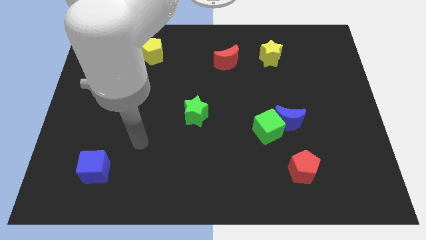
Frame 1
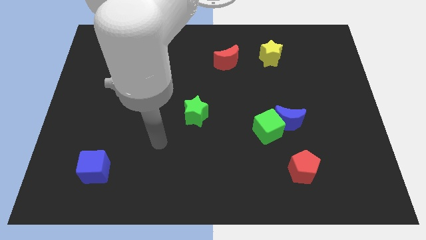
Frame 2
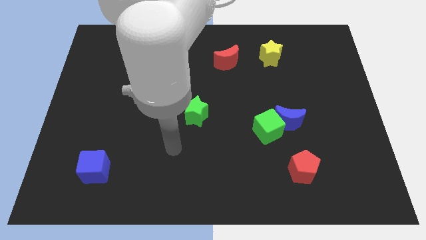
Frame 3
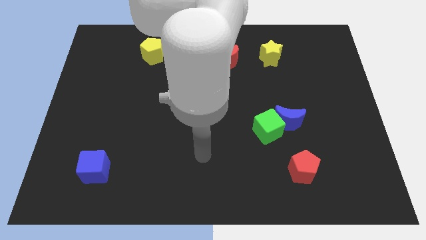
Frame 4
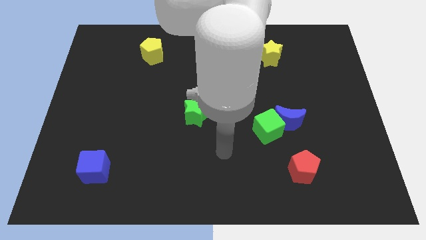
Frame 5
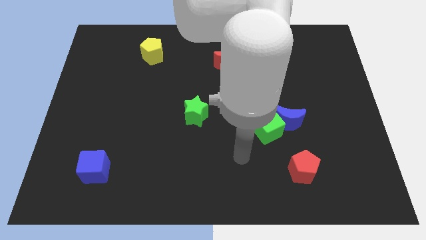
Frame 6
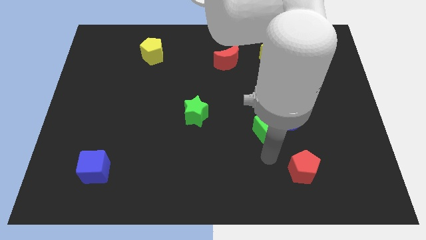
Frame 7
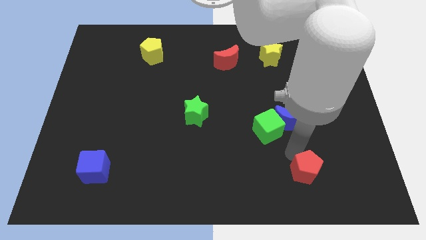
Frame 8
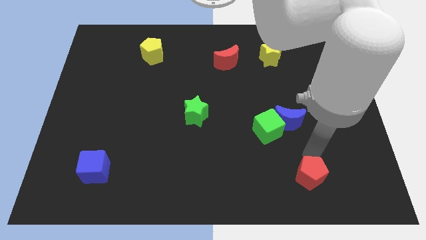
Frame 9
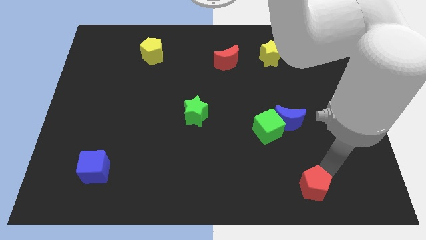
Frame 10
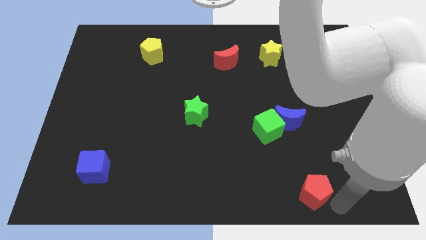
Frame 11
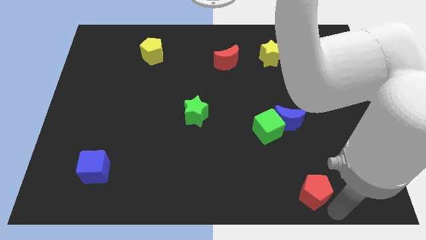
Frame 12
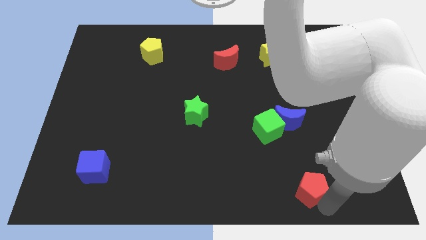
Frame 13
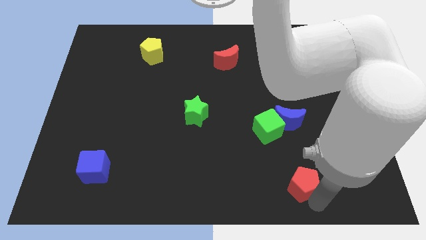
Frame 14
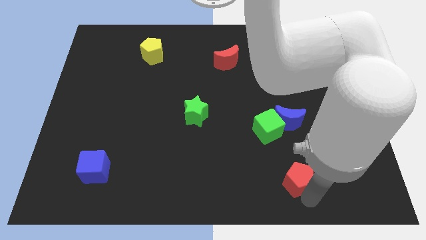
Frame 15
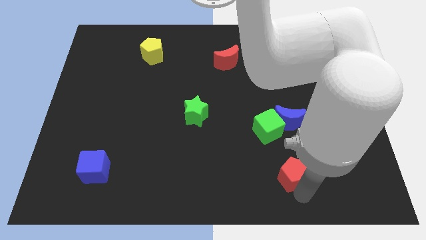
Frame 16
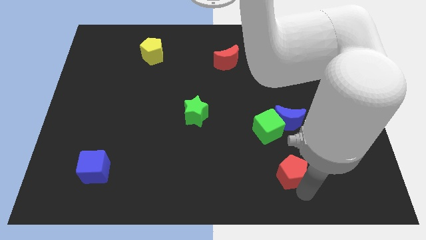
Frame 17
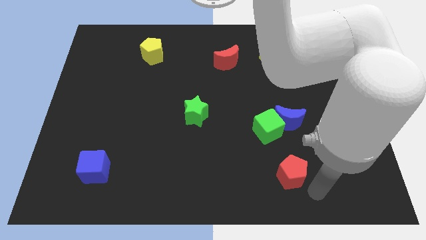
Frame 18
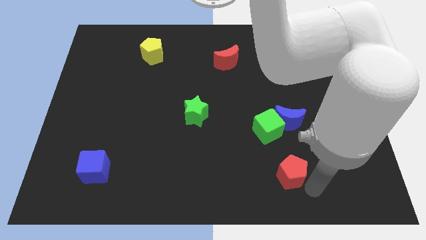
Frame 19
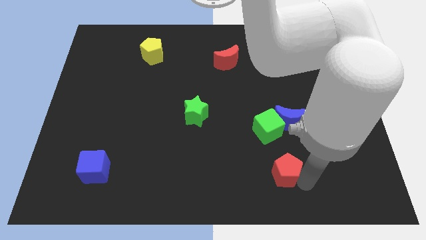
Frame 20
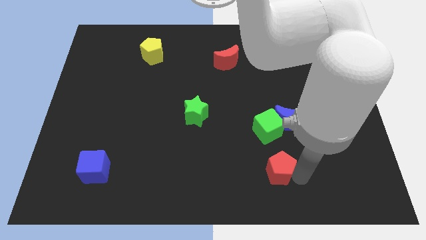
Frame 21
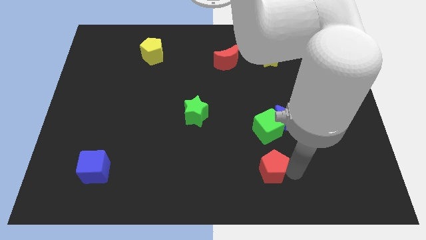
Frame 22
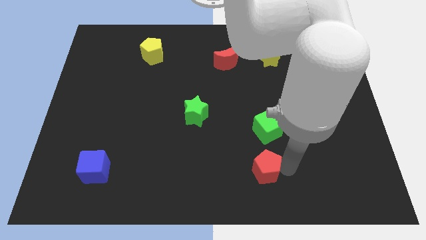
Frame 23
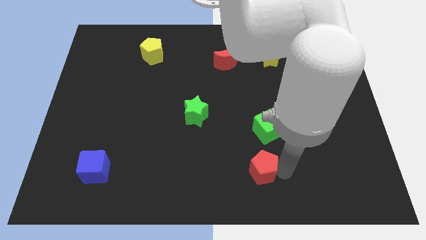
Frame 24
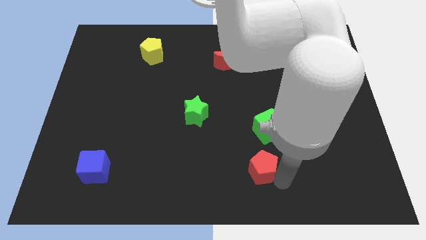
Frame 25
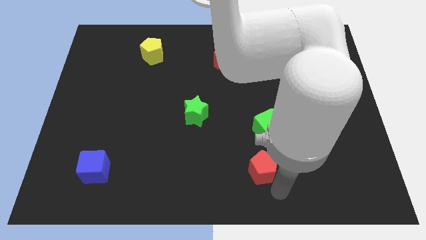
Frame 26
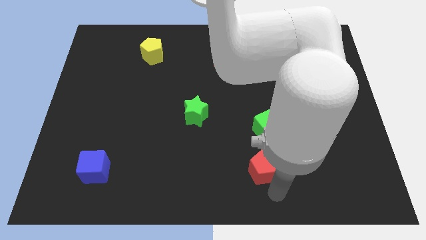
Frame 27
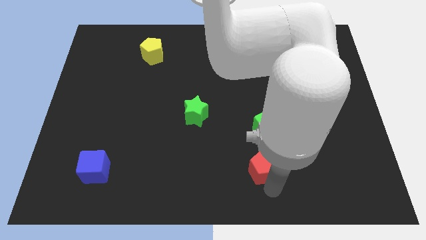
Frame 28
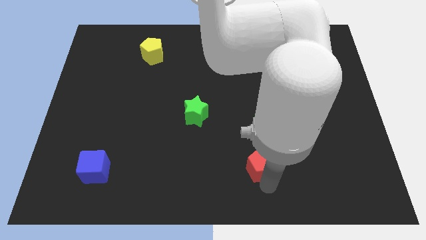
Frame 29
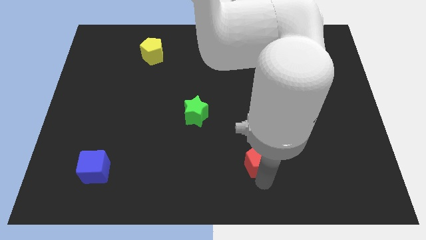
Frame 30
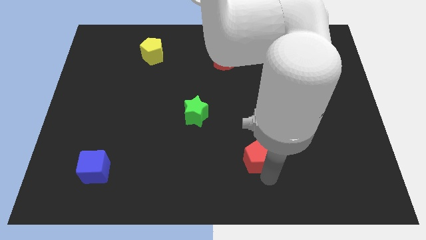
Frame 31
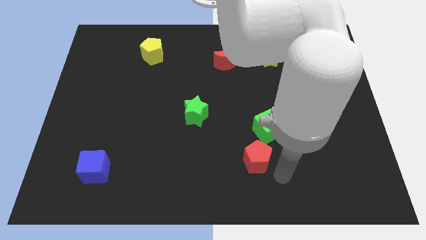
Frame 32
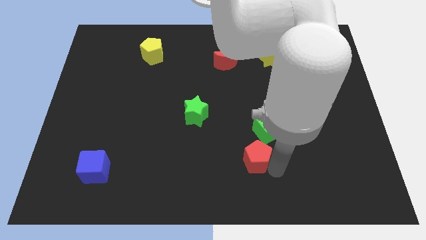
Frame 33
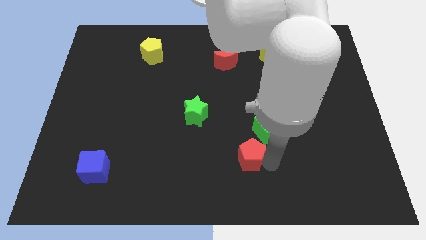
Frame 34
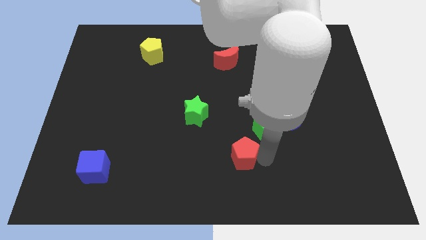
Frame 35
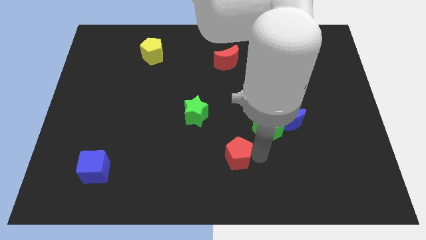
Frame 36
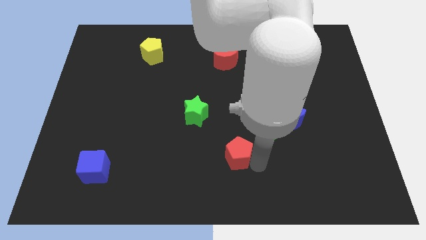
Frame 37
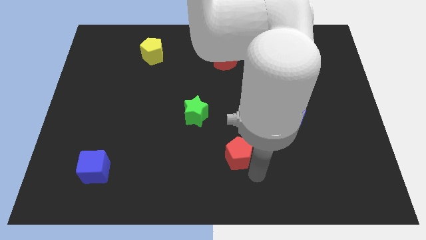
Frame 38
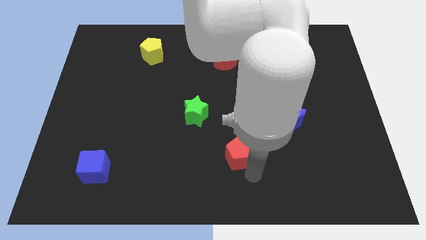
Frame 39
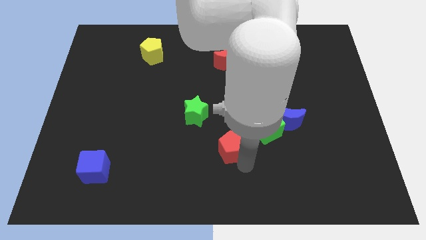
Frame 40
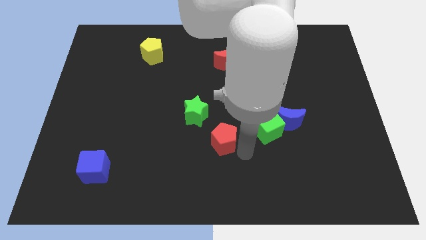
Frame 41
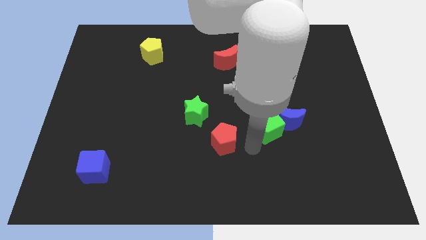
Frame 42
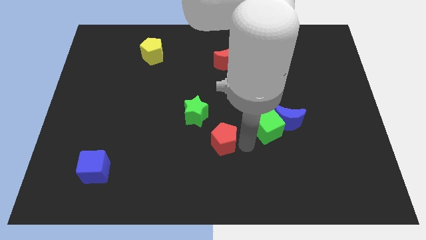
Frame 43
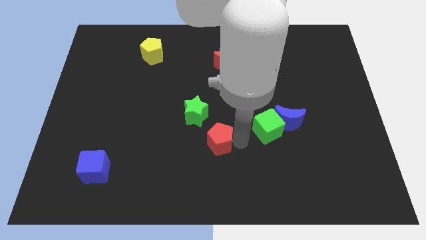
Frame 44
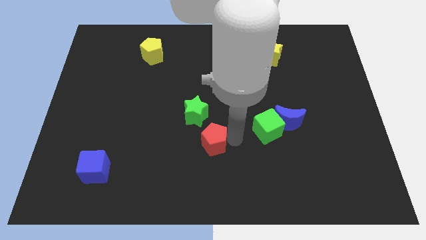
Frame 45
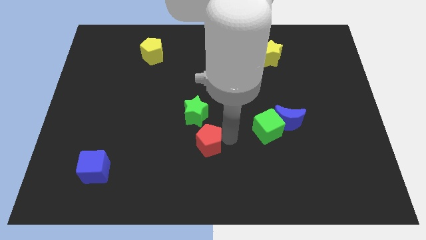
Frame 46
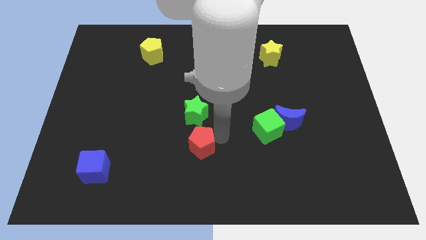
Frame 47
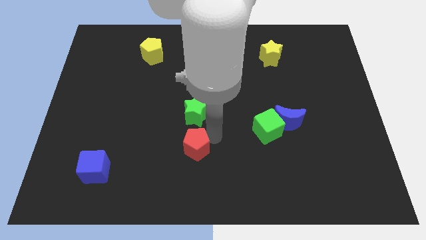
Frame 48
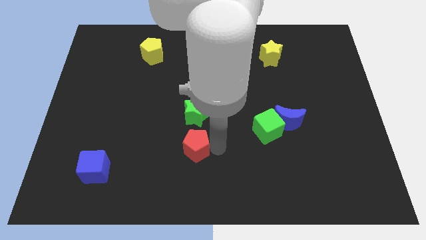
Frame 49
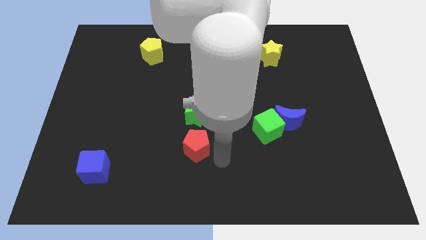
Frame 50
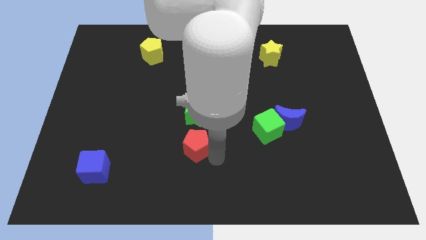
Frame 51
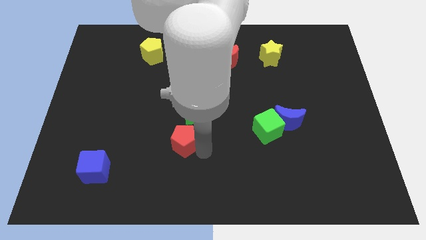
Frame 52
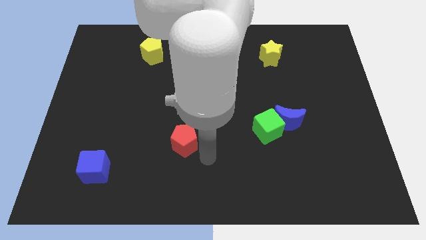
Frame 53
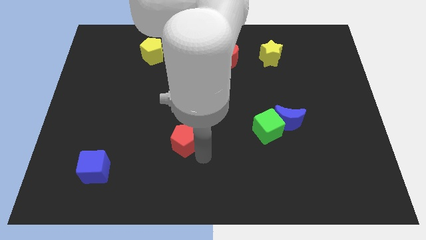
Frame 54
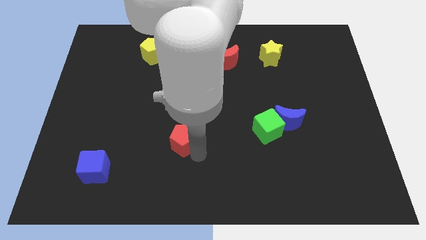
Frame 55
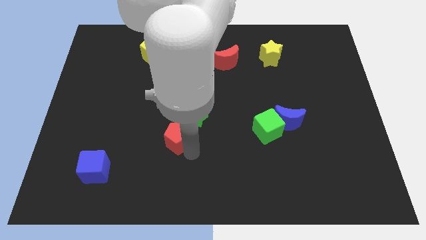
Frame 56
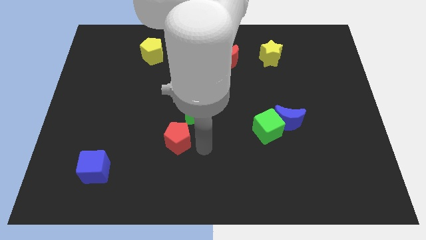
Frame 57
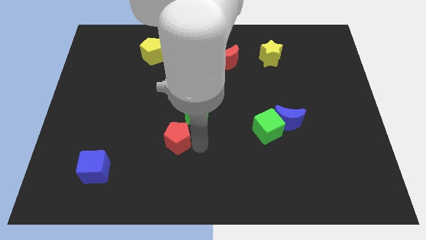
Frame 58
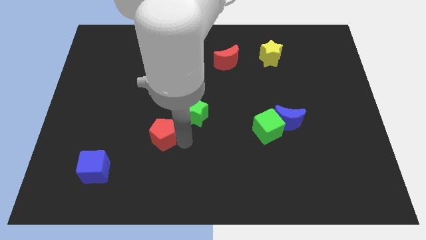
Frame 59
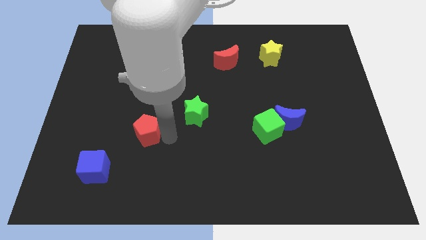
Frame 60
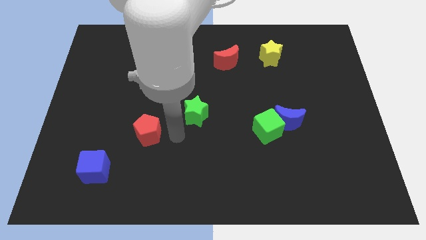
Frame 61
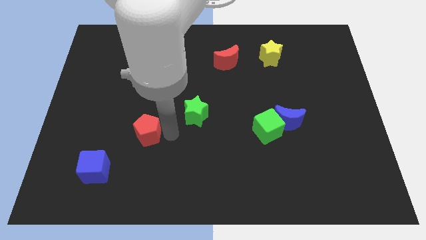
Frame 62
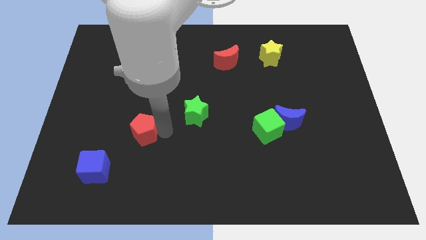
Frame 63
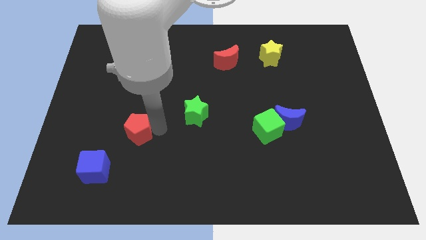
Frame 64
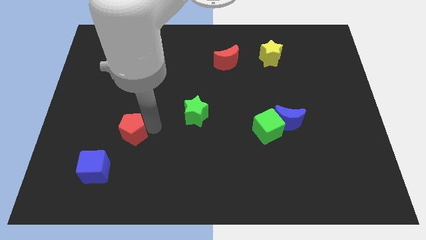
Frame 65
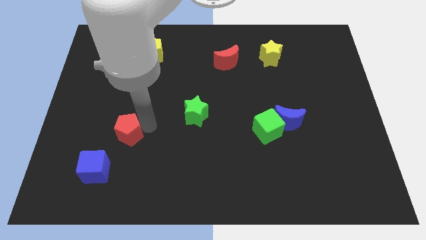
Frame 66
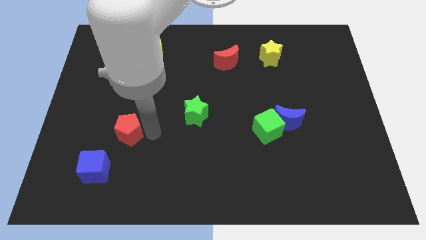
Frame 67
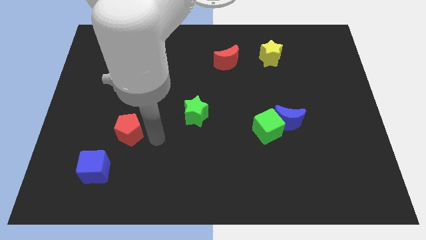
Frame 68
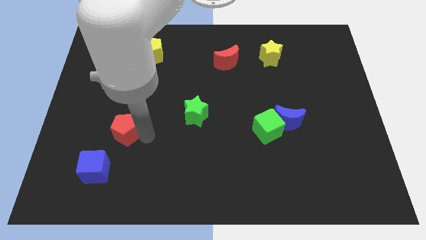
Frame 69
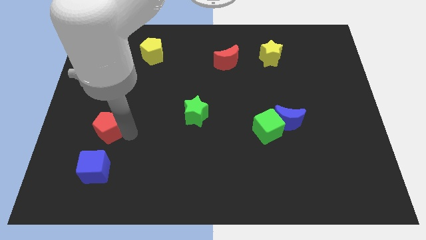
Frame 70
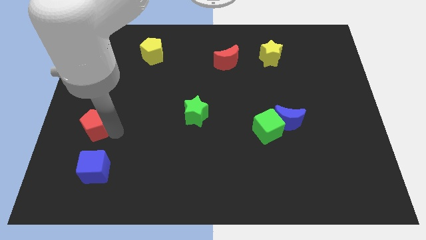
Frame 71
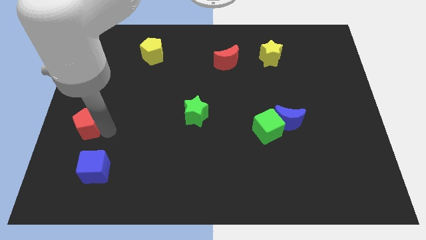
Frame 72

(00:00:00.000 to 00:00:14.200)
slide the red pentagon to the left side
